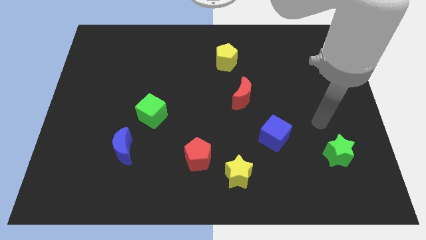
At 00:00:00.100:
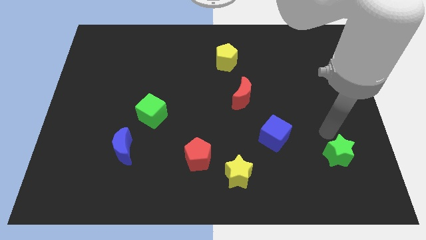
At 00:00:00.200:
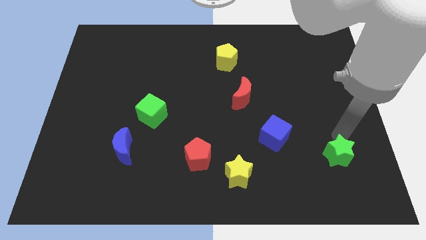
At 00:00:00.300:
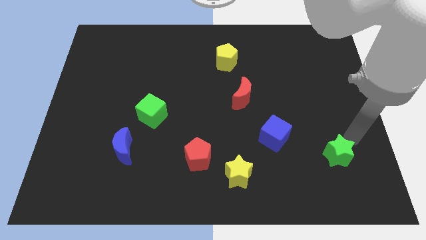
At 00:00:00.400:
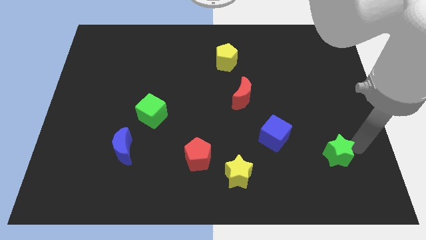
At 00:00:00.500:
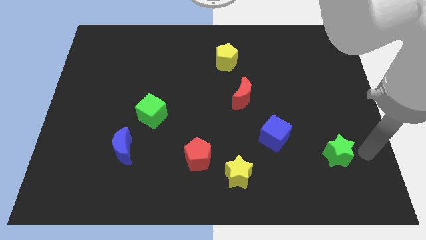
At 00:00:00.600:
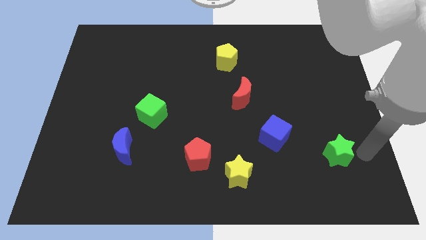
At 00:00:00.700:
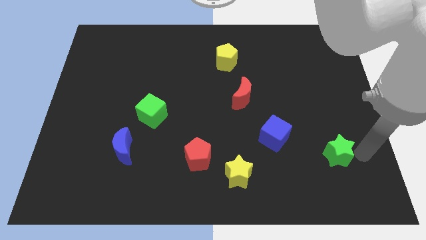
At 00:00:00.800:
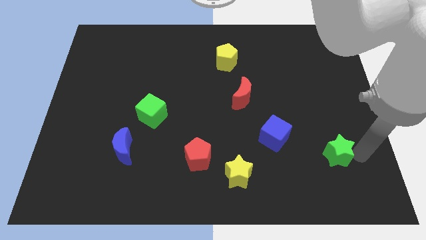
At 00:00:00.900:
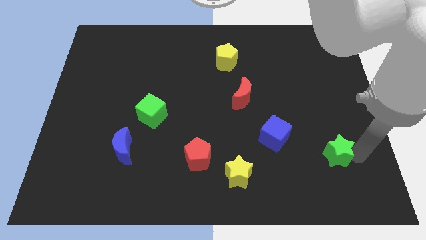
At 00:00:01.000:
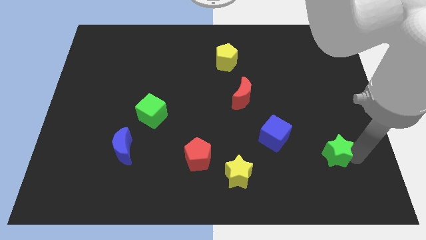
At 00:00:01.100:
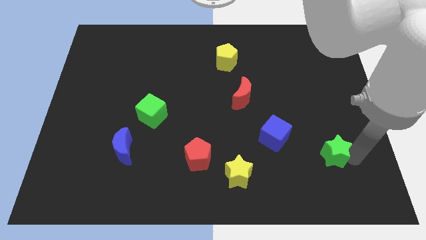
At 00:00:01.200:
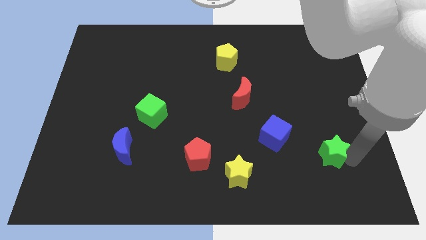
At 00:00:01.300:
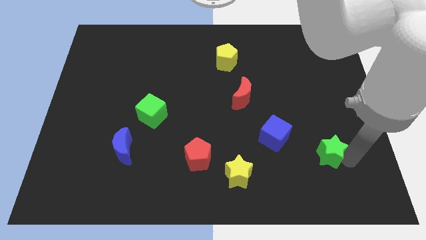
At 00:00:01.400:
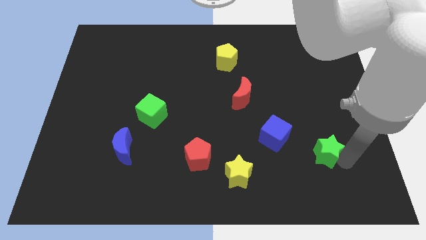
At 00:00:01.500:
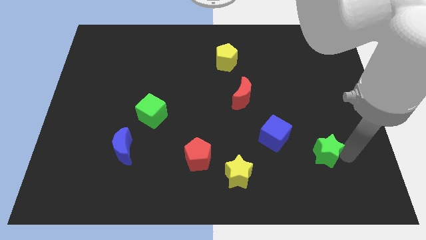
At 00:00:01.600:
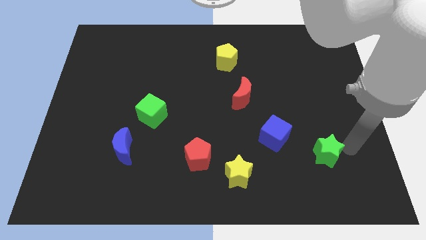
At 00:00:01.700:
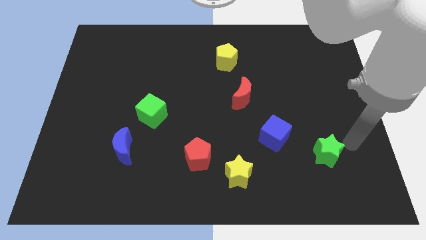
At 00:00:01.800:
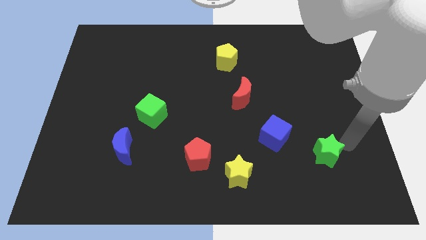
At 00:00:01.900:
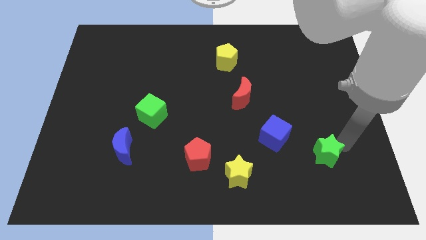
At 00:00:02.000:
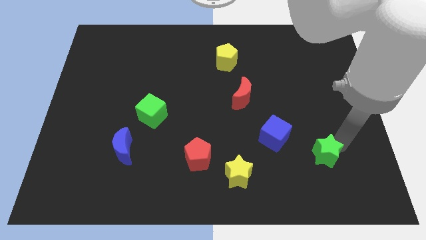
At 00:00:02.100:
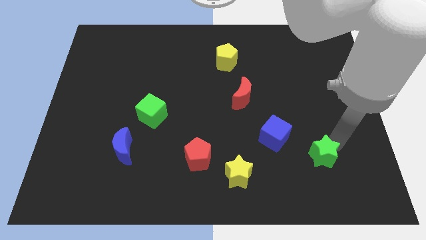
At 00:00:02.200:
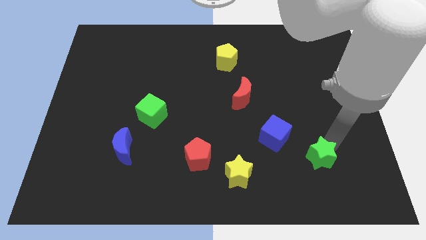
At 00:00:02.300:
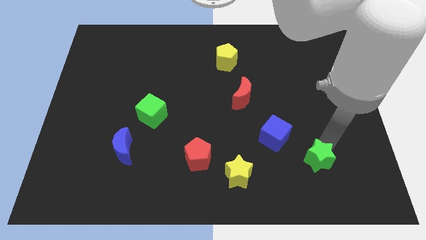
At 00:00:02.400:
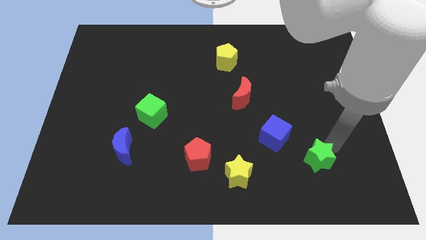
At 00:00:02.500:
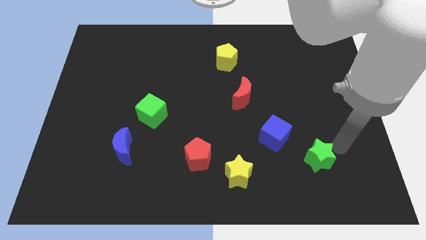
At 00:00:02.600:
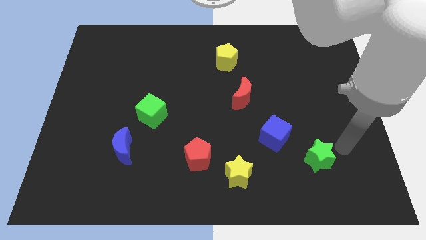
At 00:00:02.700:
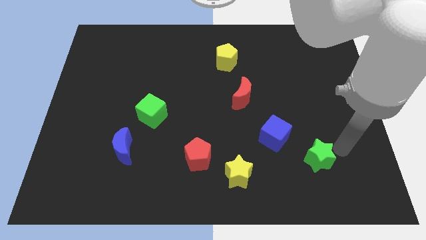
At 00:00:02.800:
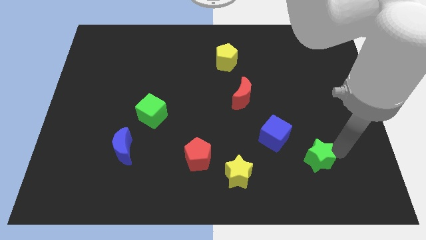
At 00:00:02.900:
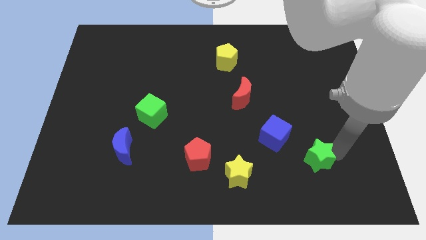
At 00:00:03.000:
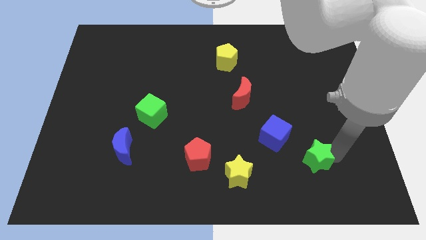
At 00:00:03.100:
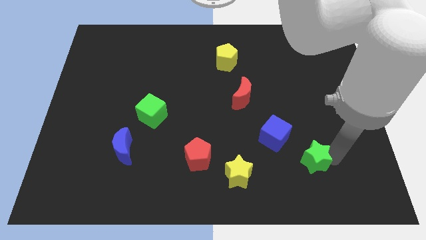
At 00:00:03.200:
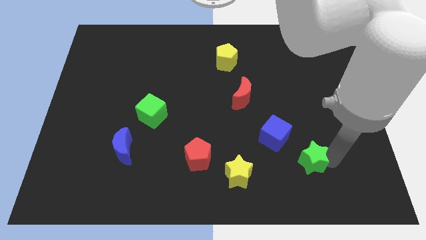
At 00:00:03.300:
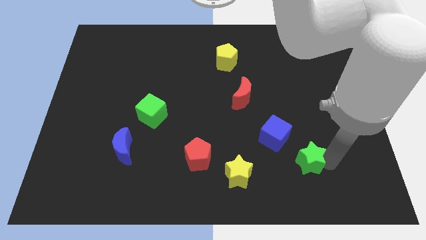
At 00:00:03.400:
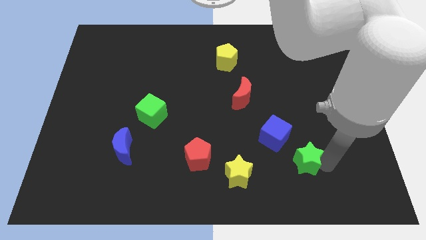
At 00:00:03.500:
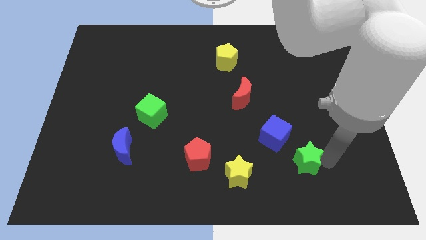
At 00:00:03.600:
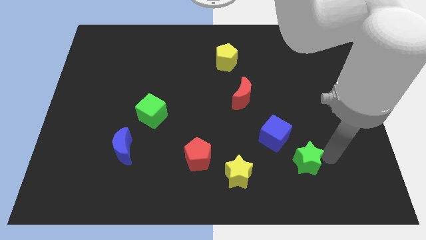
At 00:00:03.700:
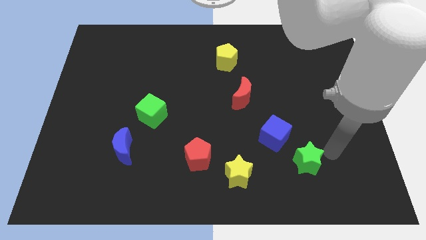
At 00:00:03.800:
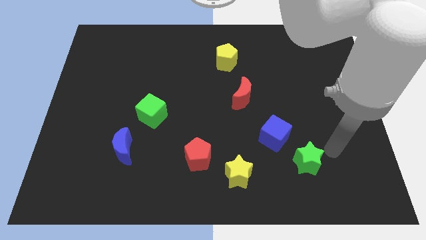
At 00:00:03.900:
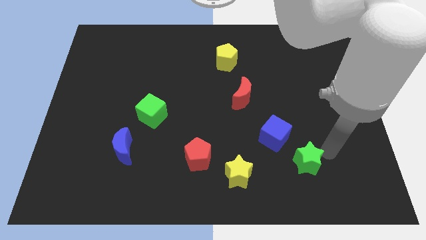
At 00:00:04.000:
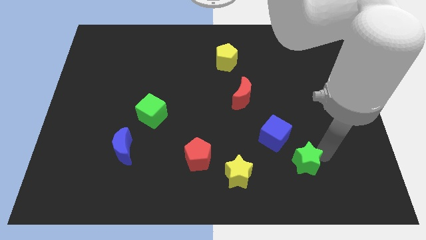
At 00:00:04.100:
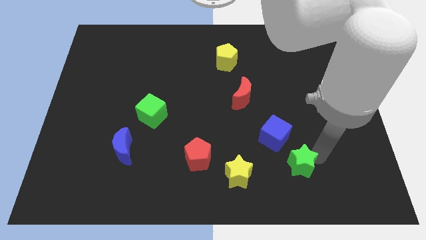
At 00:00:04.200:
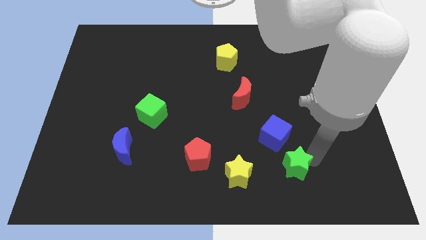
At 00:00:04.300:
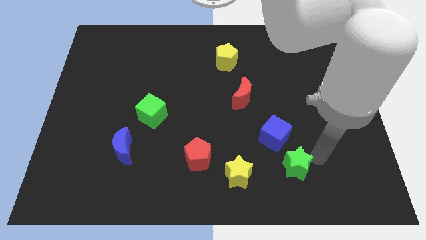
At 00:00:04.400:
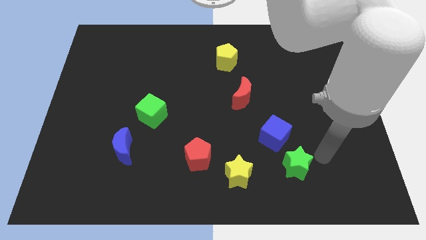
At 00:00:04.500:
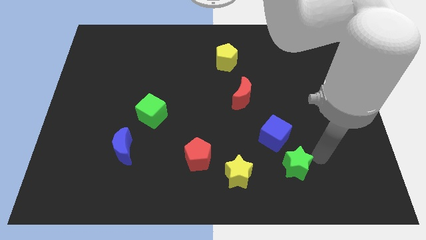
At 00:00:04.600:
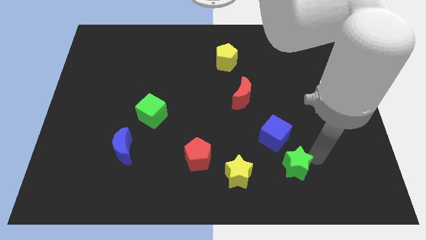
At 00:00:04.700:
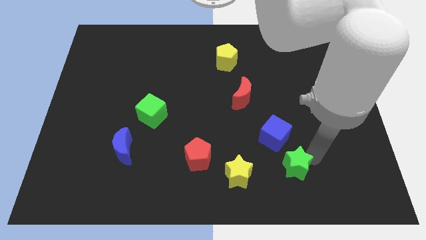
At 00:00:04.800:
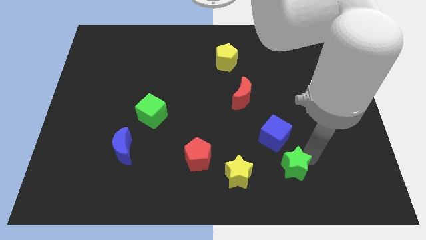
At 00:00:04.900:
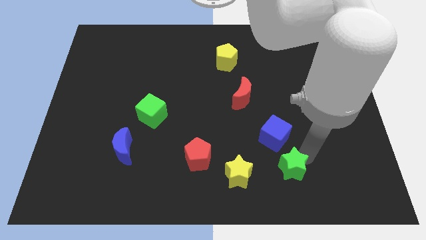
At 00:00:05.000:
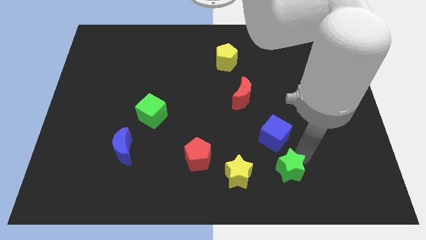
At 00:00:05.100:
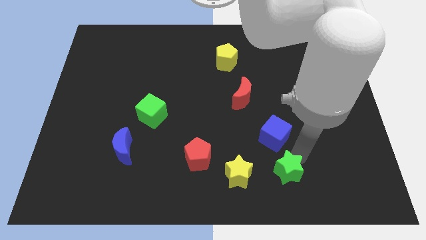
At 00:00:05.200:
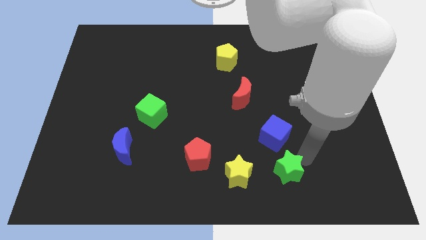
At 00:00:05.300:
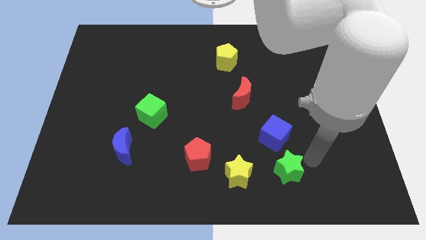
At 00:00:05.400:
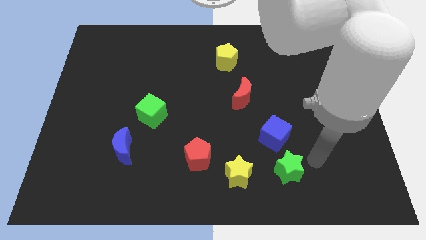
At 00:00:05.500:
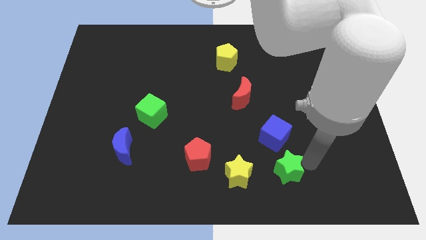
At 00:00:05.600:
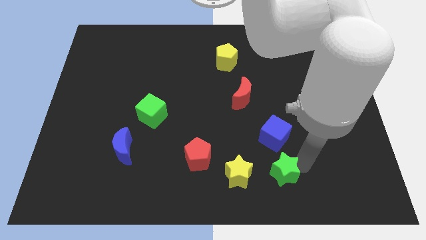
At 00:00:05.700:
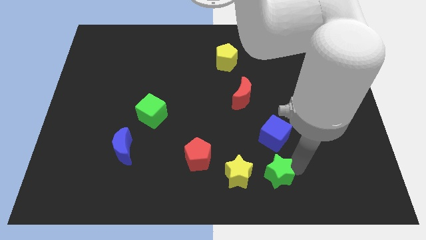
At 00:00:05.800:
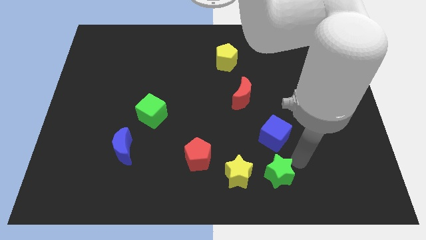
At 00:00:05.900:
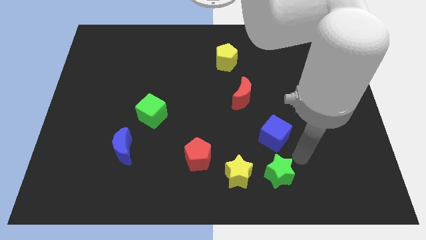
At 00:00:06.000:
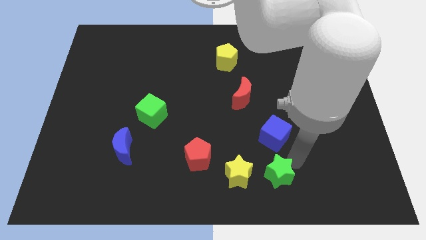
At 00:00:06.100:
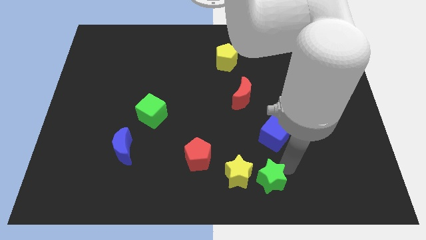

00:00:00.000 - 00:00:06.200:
put the green star to the bottom side

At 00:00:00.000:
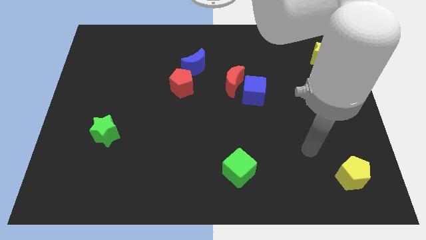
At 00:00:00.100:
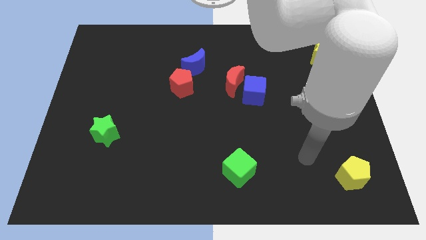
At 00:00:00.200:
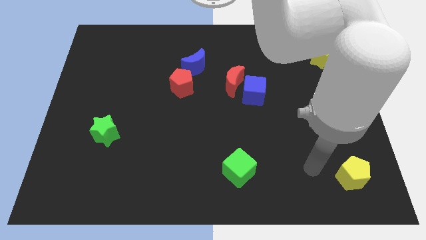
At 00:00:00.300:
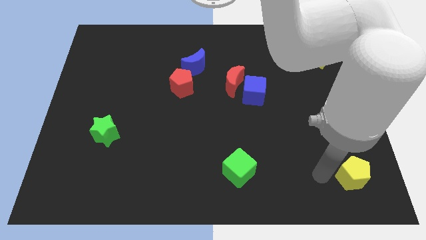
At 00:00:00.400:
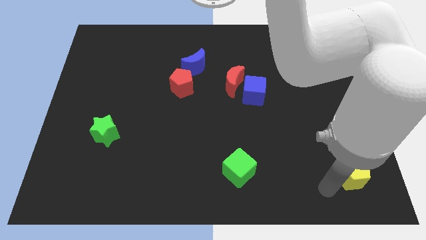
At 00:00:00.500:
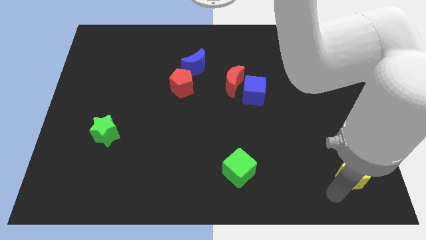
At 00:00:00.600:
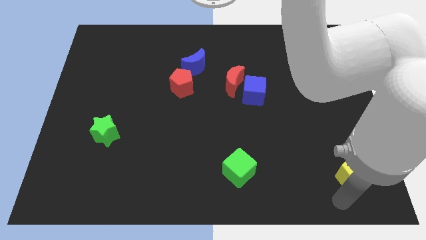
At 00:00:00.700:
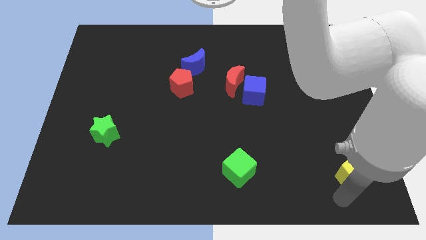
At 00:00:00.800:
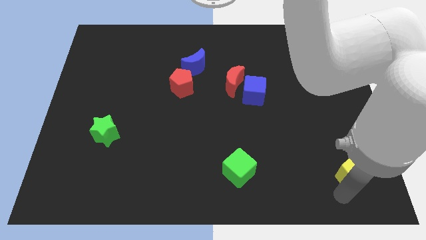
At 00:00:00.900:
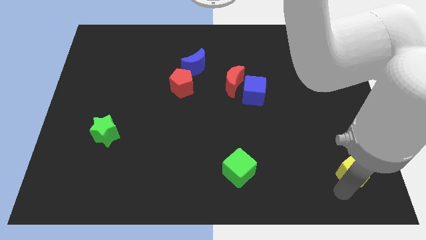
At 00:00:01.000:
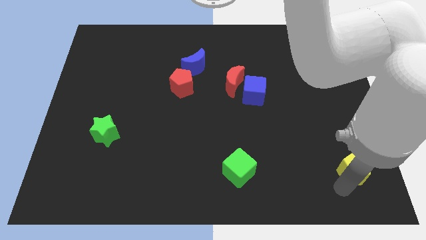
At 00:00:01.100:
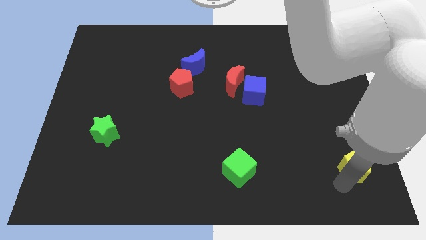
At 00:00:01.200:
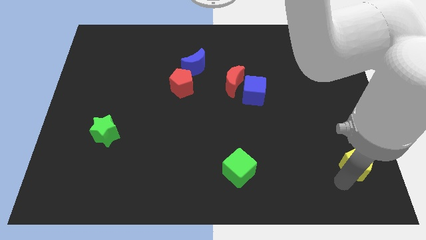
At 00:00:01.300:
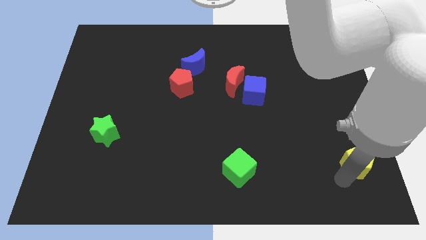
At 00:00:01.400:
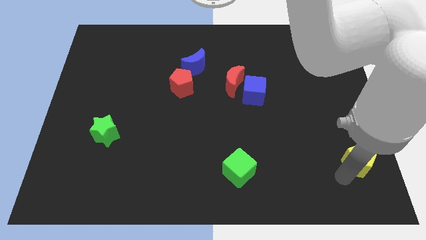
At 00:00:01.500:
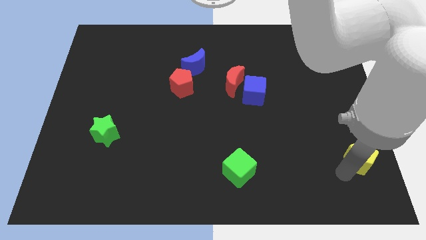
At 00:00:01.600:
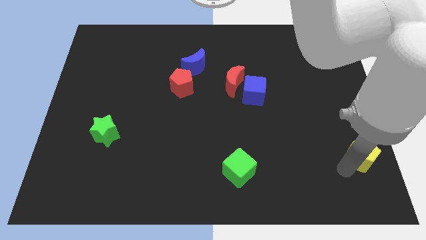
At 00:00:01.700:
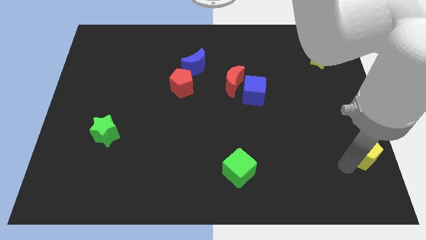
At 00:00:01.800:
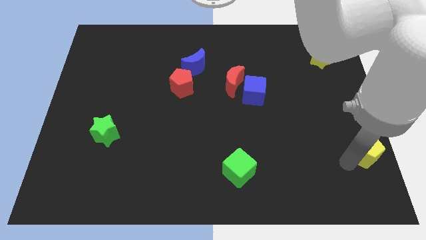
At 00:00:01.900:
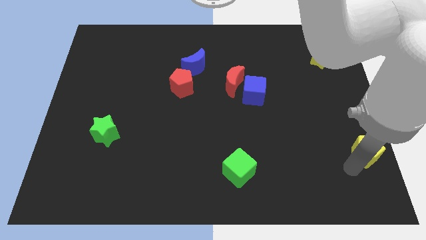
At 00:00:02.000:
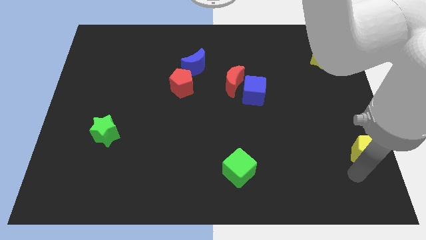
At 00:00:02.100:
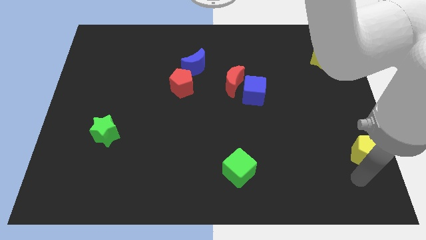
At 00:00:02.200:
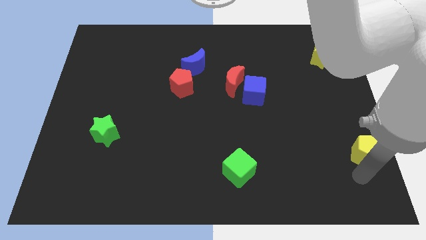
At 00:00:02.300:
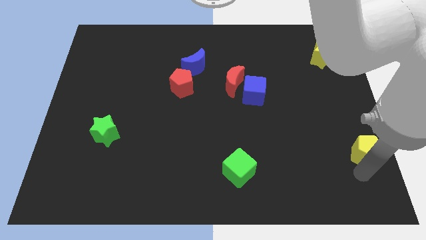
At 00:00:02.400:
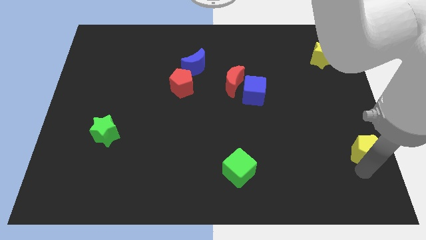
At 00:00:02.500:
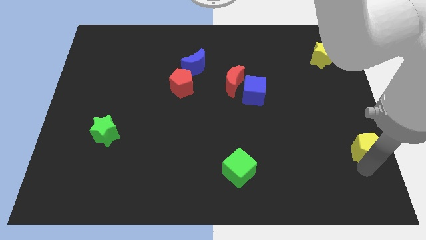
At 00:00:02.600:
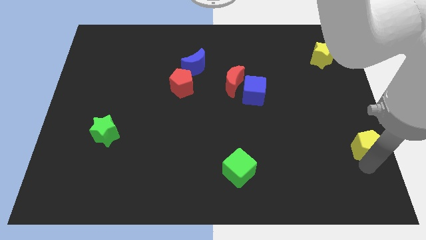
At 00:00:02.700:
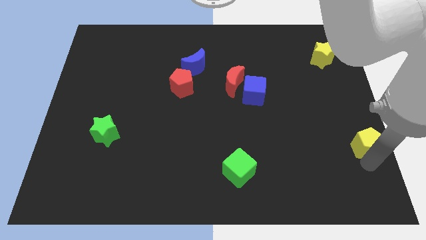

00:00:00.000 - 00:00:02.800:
move the yellow pentagon to the right side
